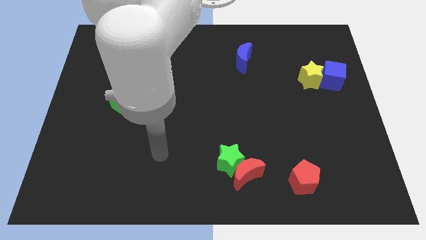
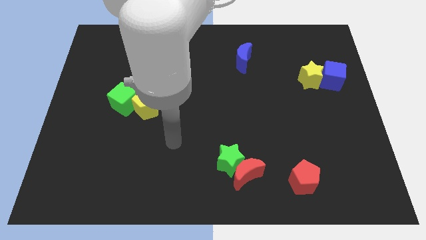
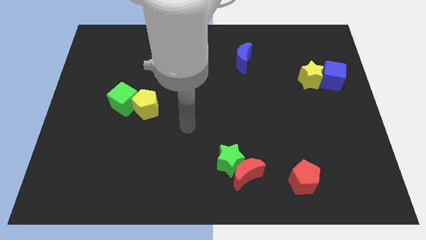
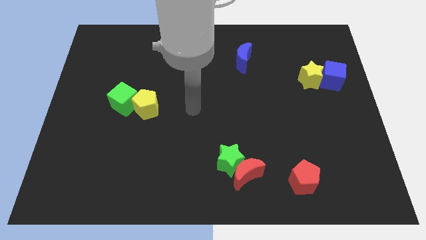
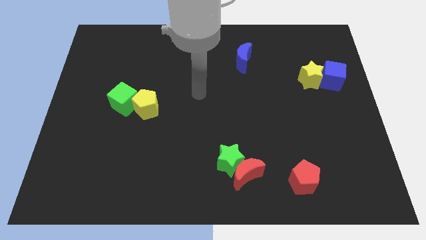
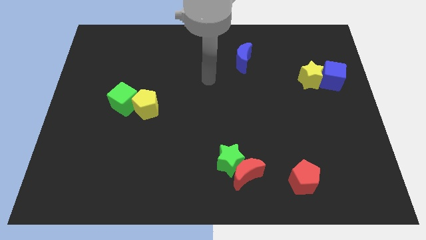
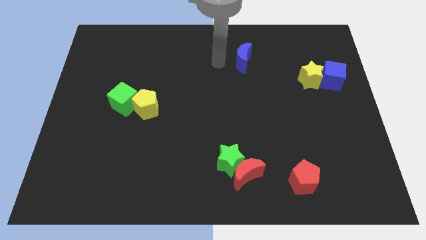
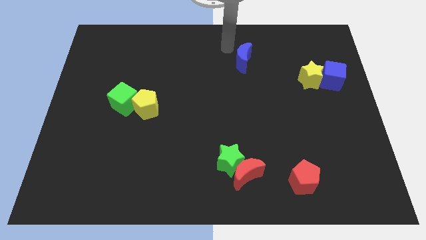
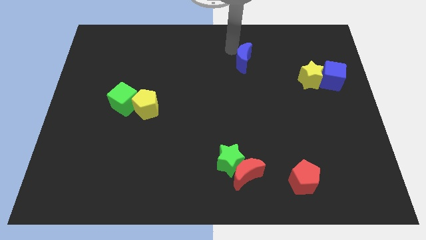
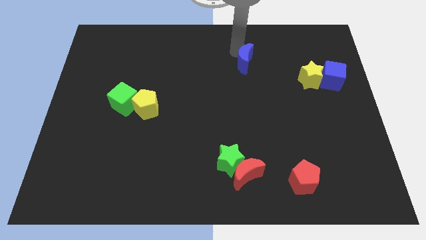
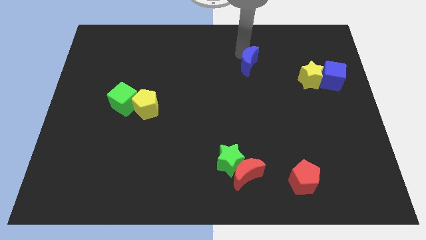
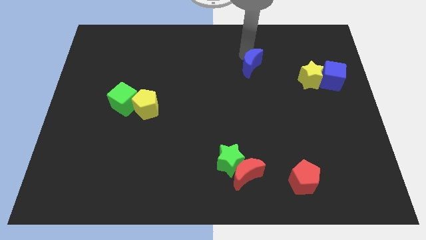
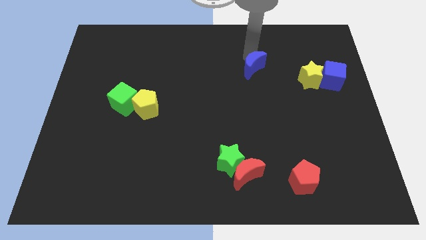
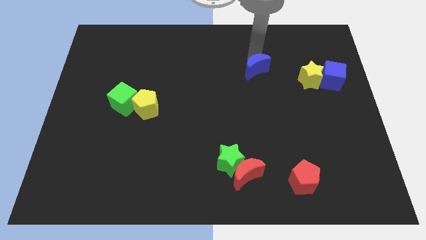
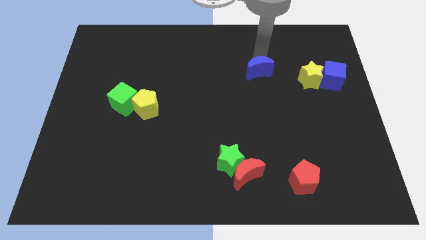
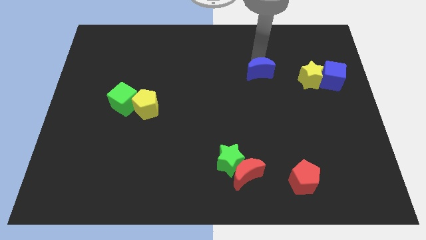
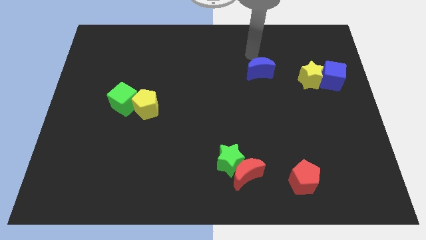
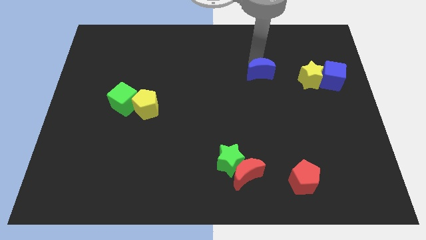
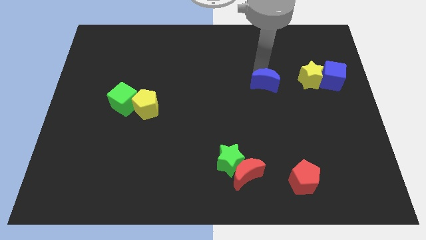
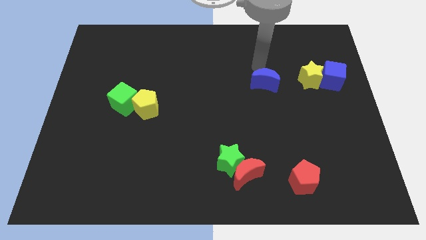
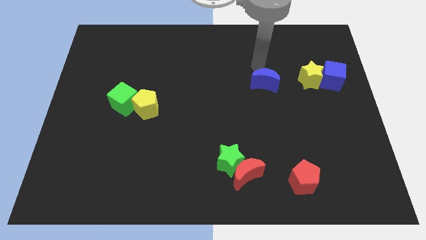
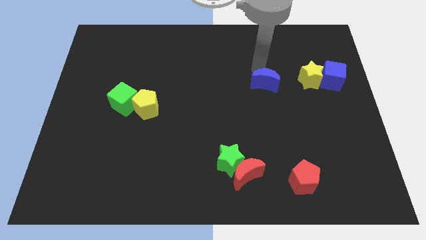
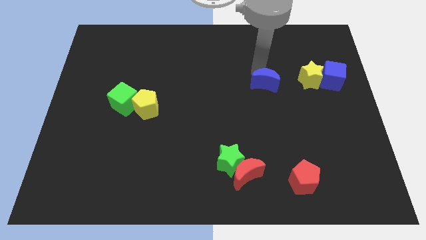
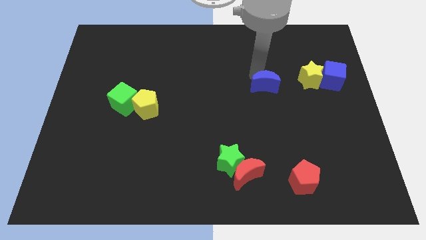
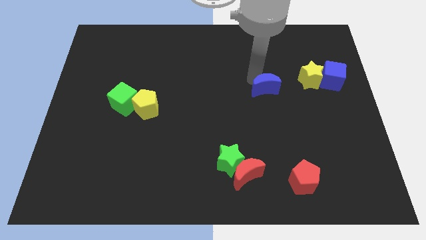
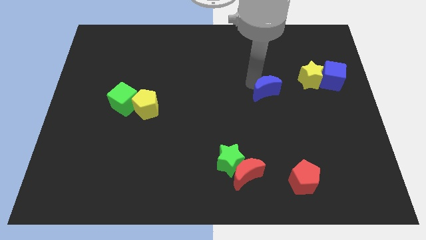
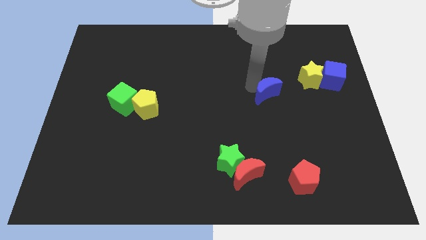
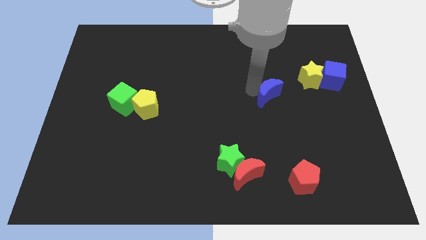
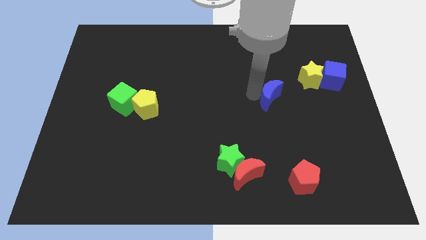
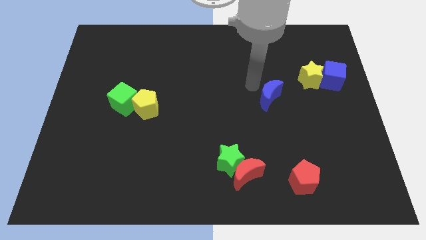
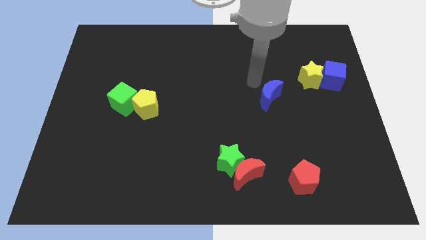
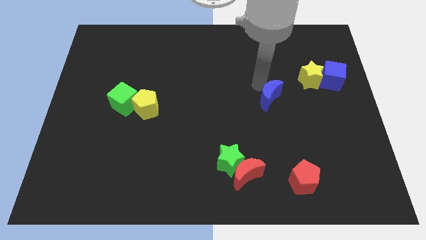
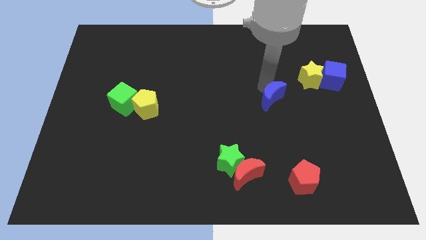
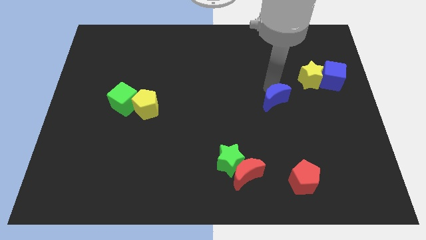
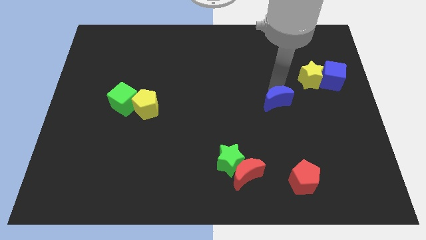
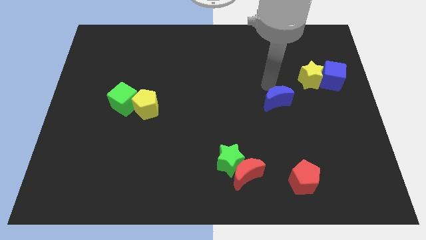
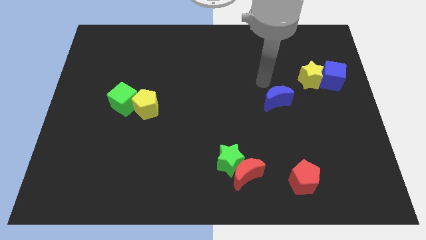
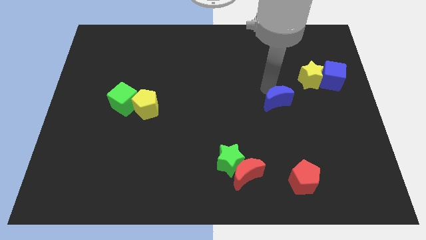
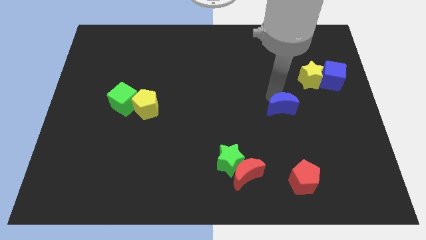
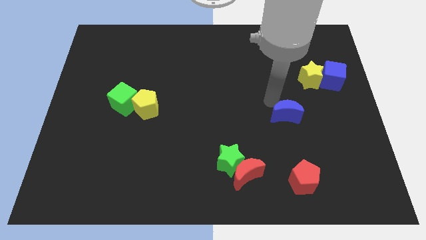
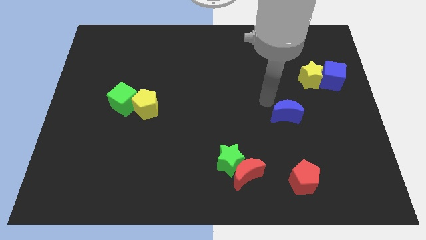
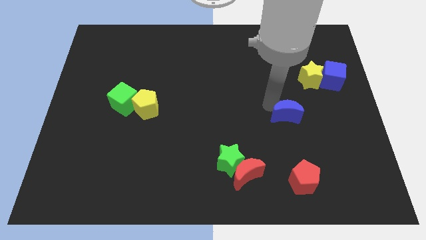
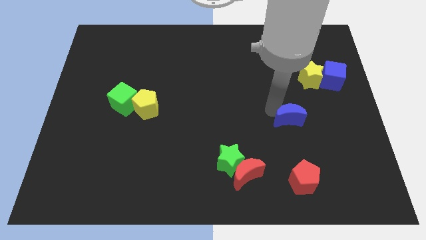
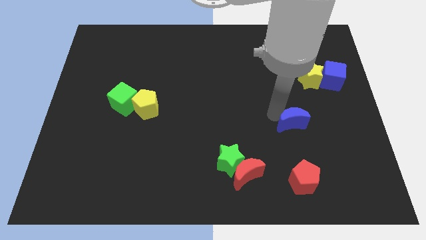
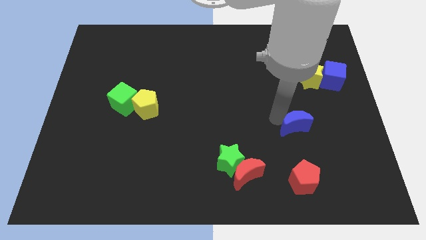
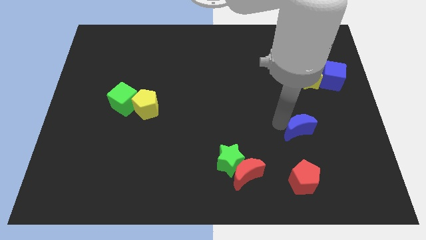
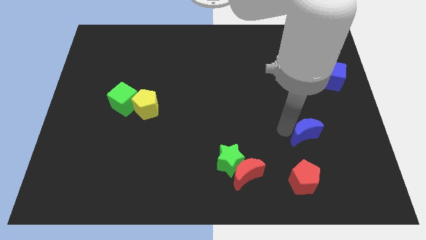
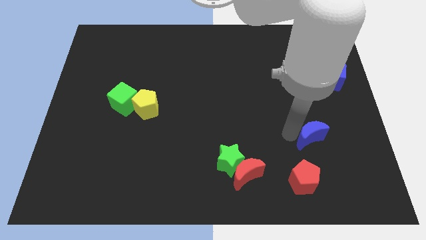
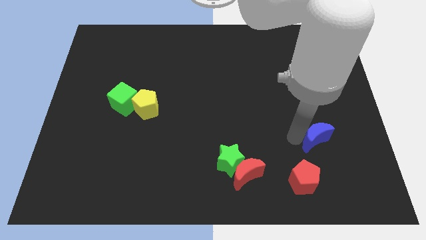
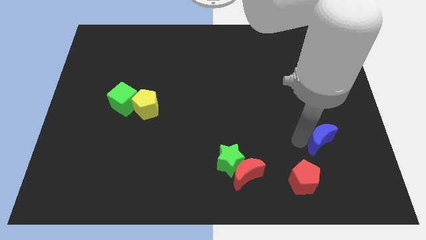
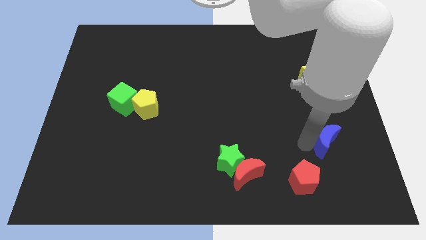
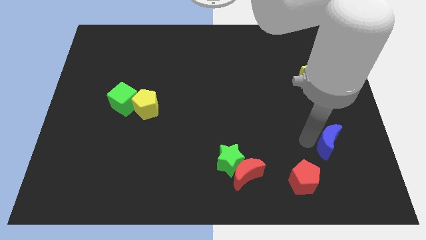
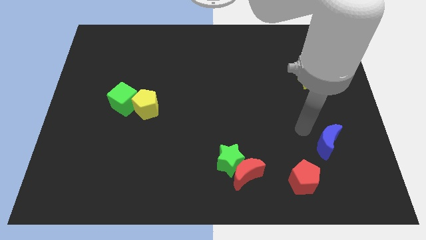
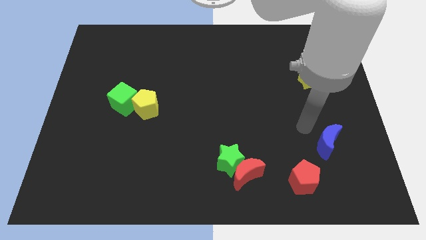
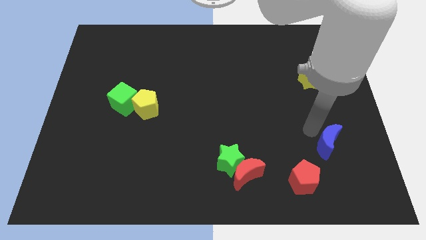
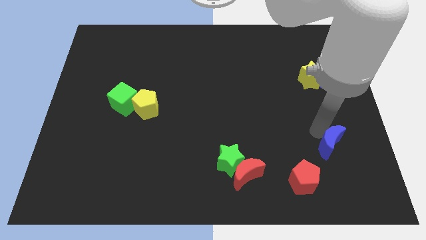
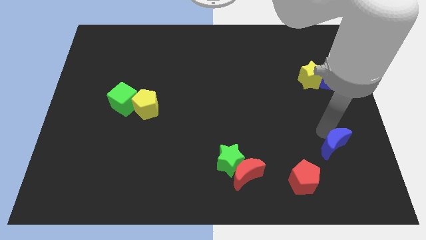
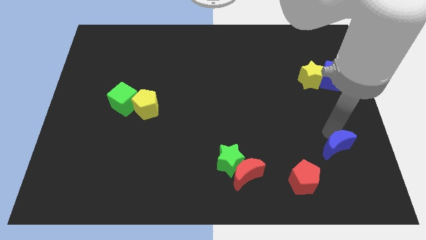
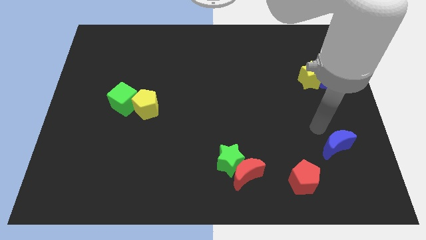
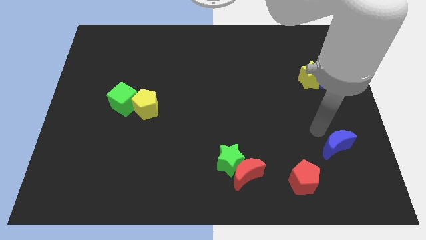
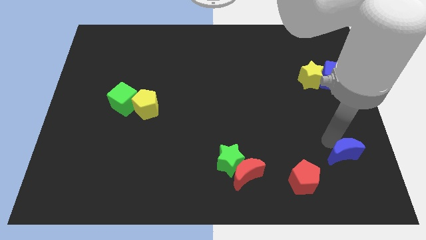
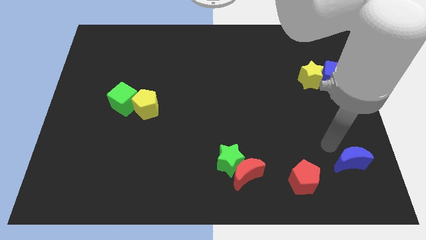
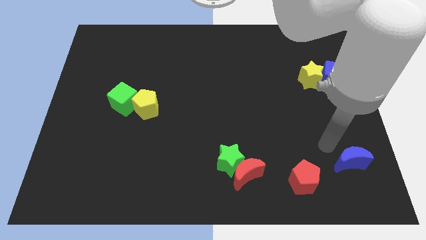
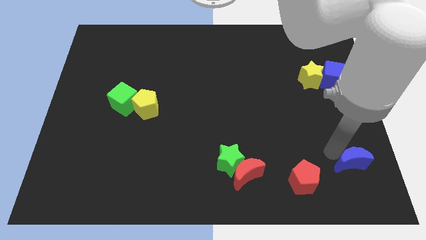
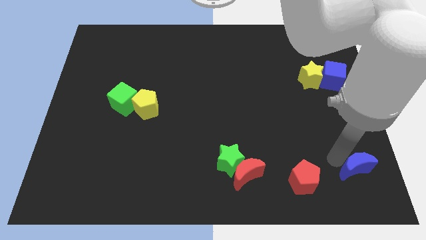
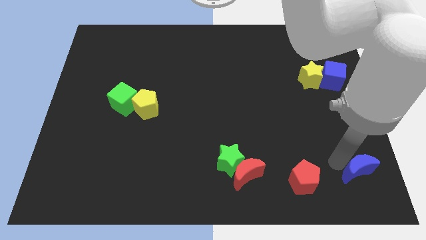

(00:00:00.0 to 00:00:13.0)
push the blue moon to the bottom right of the board
